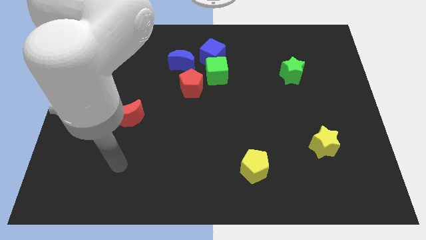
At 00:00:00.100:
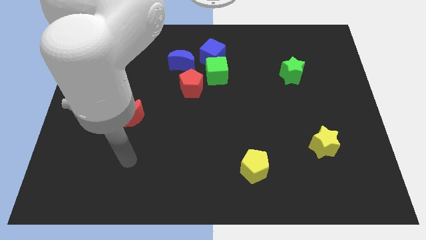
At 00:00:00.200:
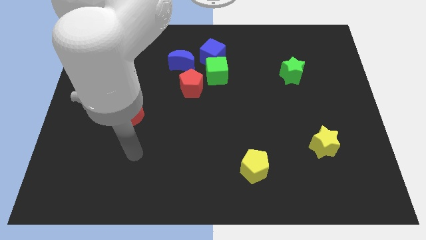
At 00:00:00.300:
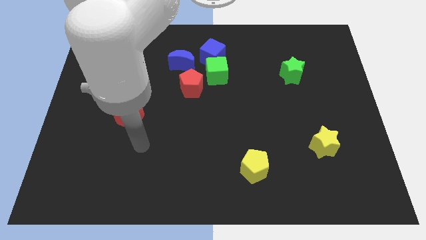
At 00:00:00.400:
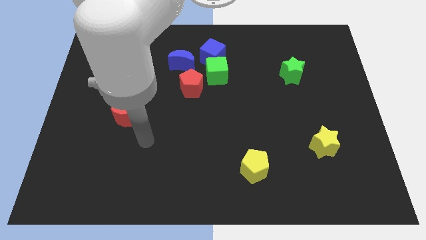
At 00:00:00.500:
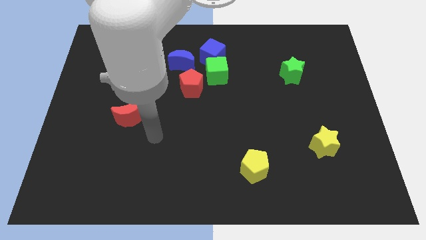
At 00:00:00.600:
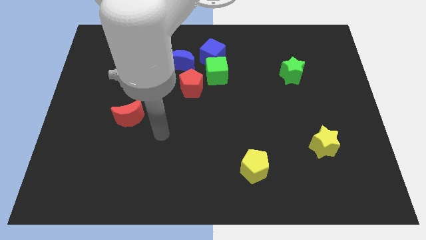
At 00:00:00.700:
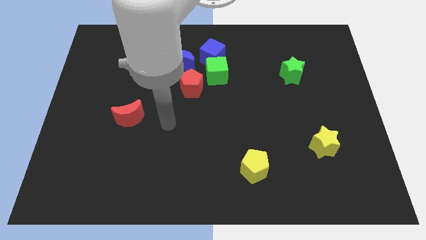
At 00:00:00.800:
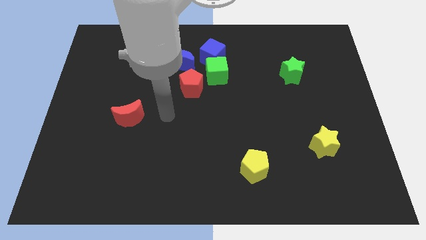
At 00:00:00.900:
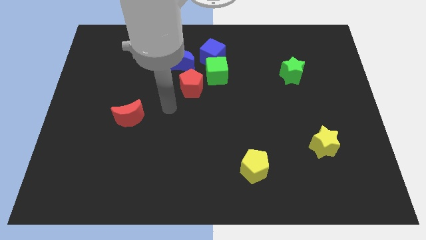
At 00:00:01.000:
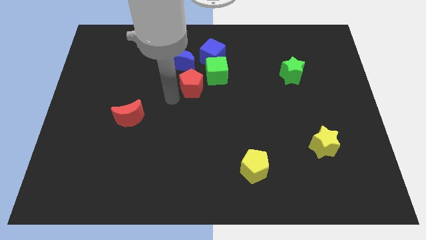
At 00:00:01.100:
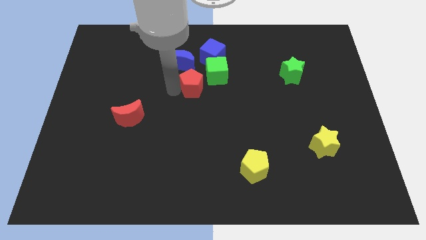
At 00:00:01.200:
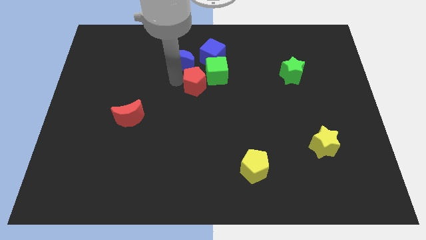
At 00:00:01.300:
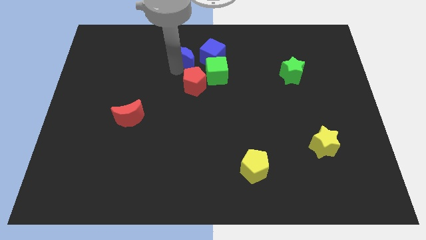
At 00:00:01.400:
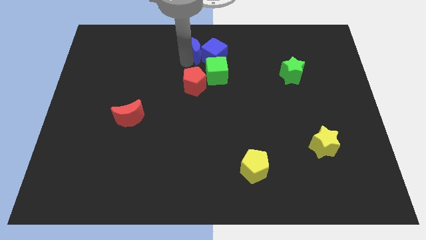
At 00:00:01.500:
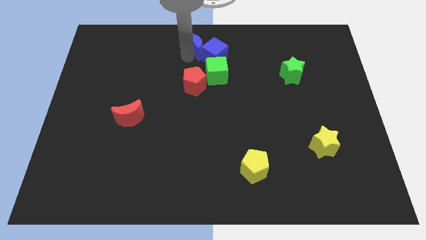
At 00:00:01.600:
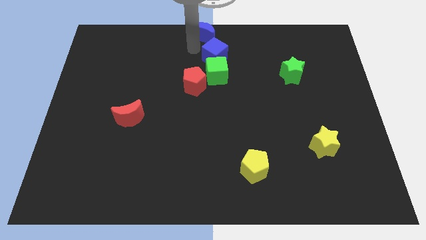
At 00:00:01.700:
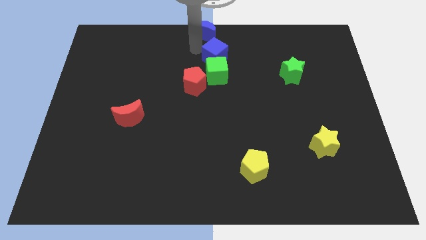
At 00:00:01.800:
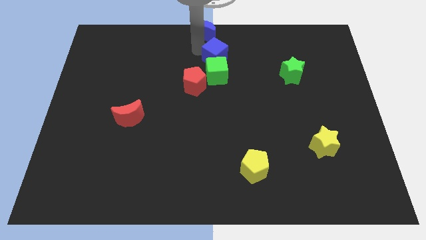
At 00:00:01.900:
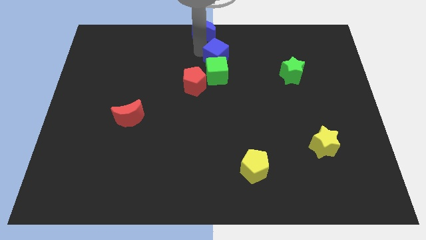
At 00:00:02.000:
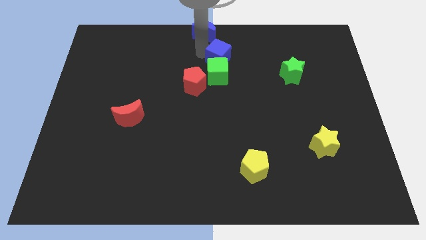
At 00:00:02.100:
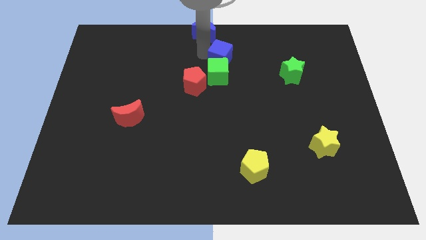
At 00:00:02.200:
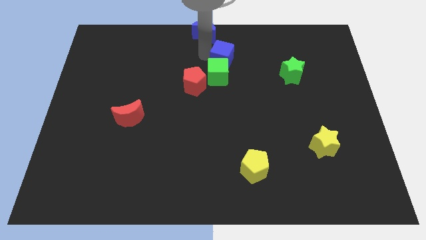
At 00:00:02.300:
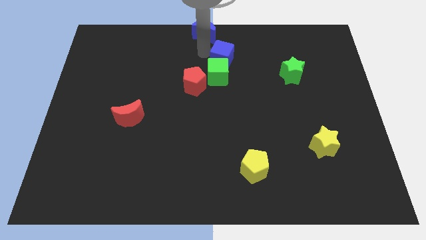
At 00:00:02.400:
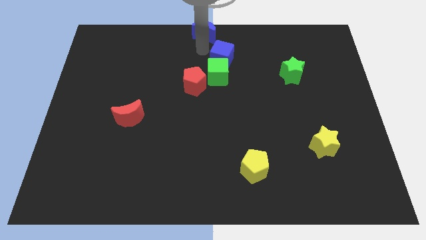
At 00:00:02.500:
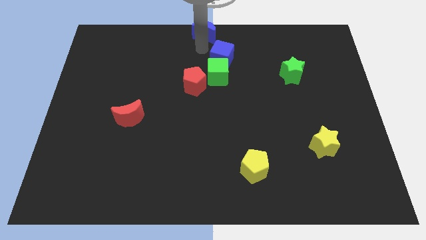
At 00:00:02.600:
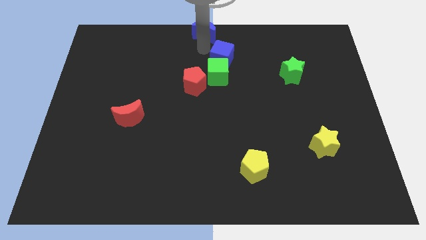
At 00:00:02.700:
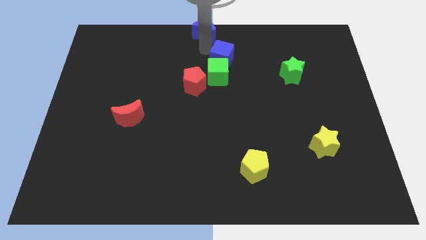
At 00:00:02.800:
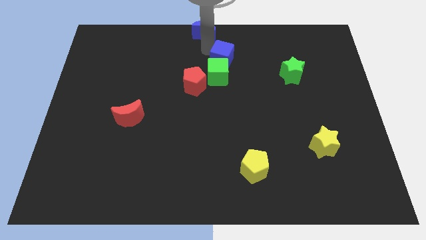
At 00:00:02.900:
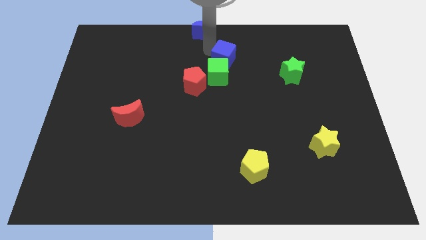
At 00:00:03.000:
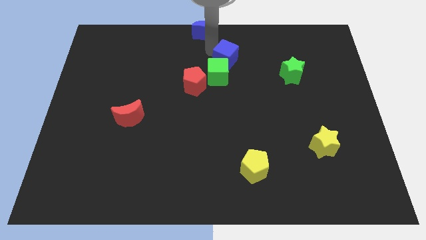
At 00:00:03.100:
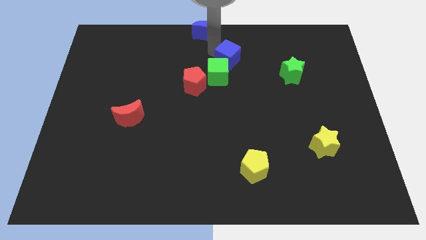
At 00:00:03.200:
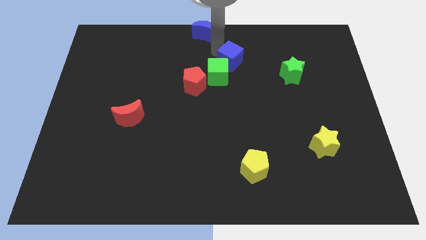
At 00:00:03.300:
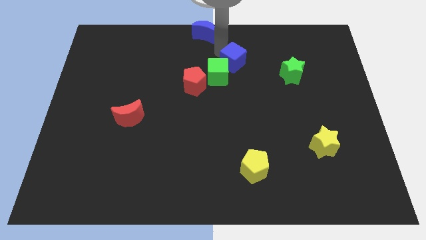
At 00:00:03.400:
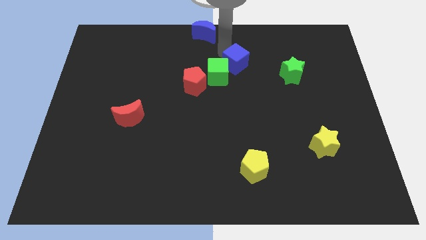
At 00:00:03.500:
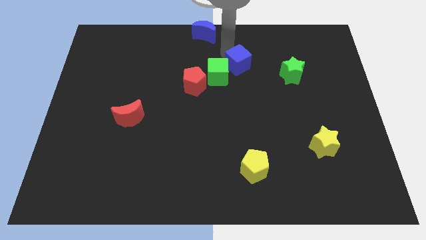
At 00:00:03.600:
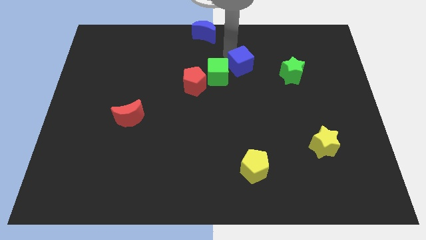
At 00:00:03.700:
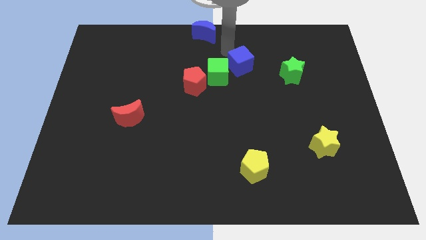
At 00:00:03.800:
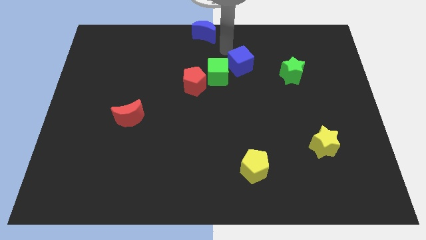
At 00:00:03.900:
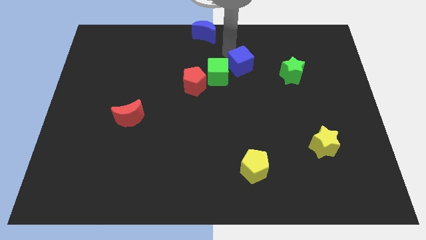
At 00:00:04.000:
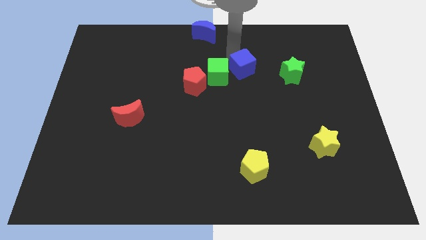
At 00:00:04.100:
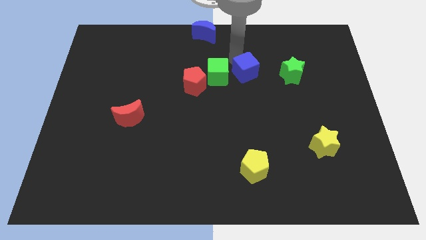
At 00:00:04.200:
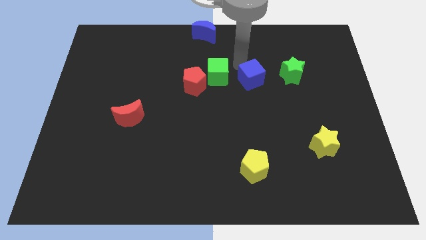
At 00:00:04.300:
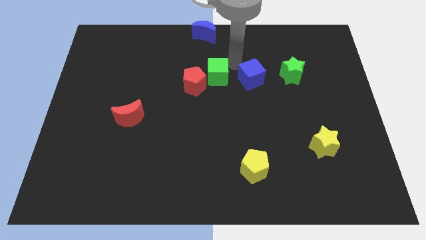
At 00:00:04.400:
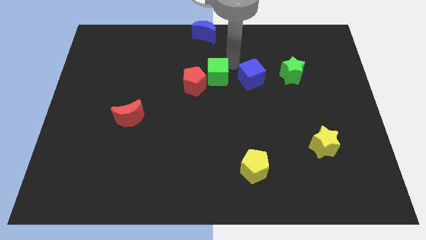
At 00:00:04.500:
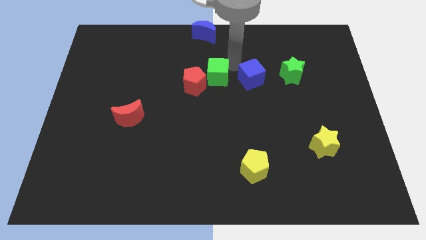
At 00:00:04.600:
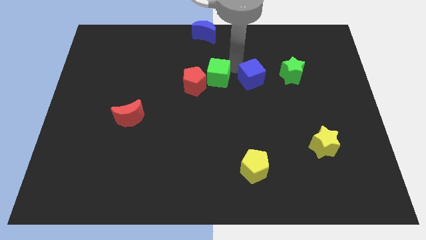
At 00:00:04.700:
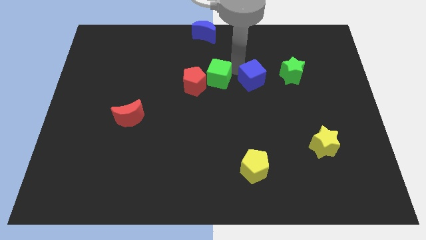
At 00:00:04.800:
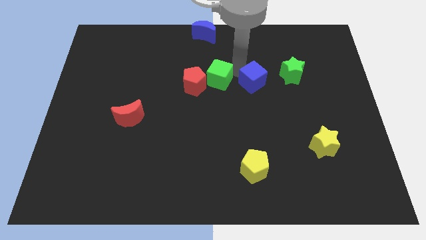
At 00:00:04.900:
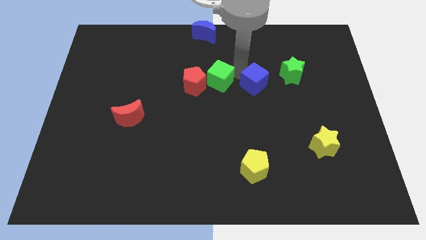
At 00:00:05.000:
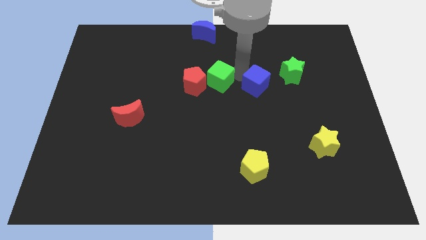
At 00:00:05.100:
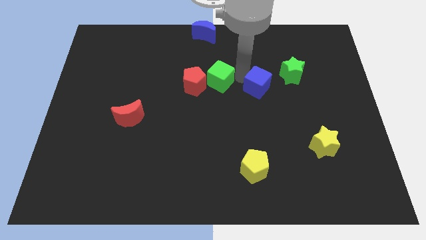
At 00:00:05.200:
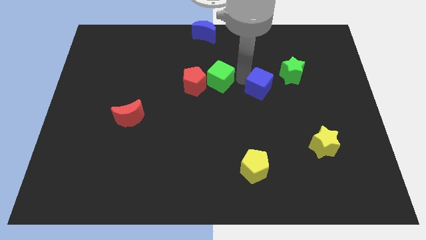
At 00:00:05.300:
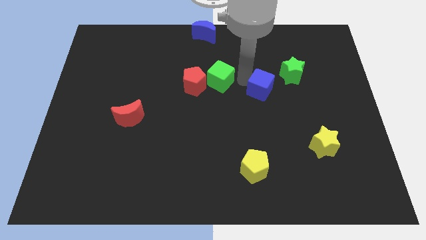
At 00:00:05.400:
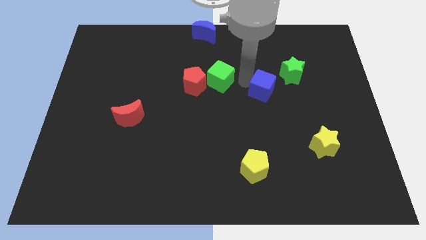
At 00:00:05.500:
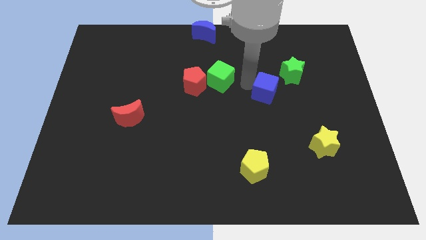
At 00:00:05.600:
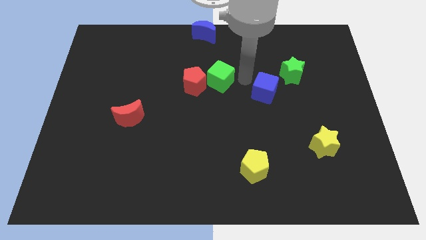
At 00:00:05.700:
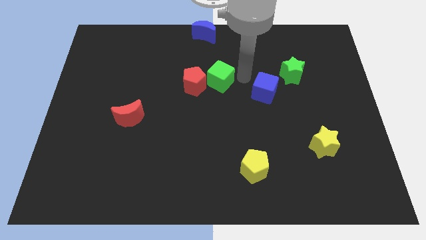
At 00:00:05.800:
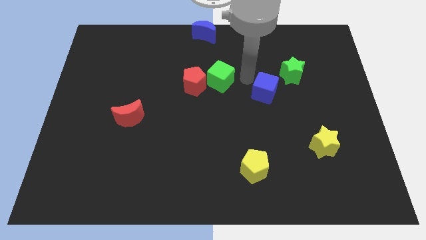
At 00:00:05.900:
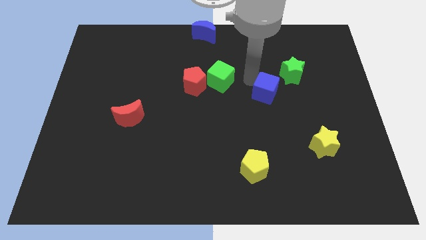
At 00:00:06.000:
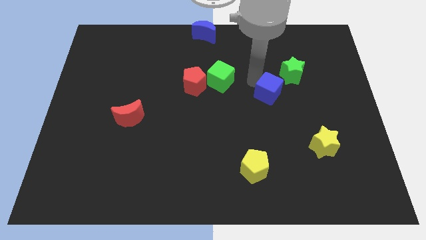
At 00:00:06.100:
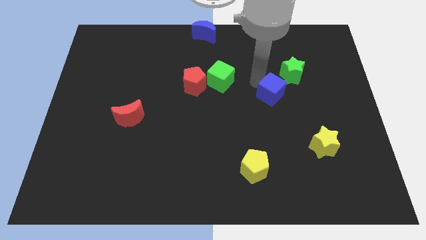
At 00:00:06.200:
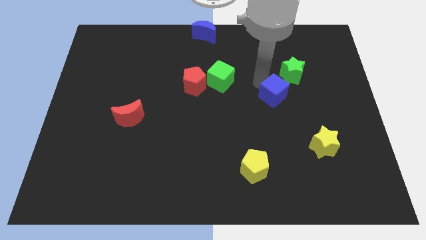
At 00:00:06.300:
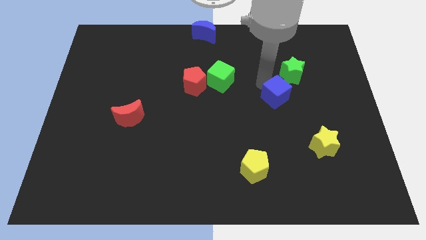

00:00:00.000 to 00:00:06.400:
slide the blue cube downwards and then right

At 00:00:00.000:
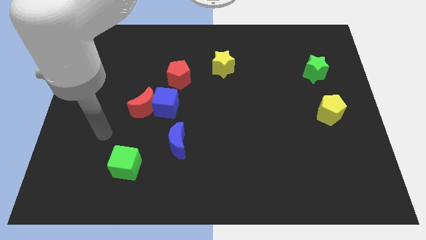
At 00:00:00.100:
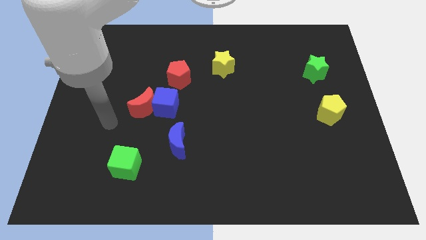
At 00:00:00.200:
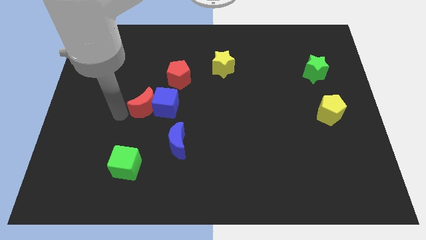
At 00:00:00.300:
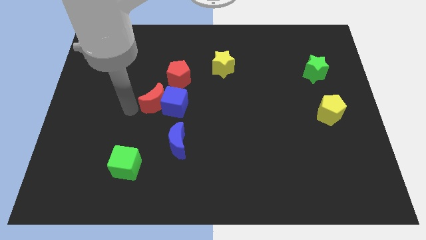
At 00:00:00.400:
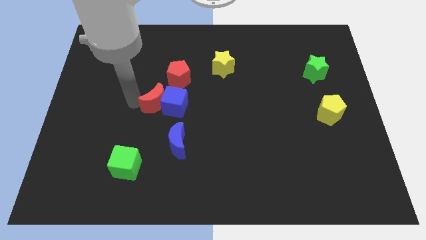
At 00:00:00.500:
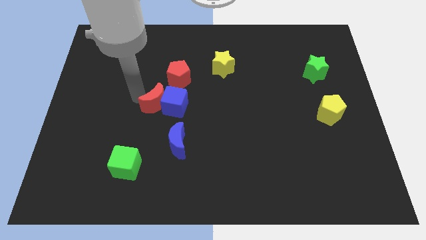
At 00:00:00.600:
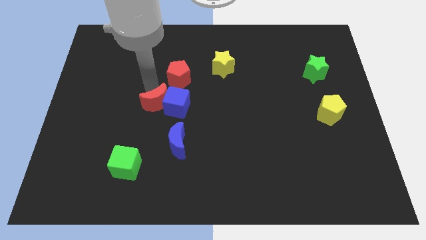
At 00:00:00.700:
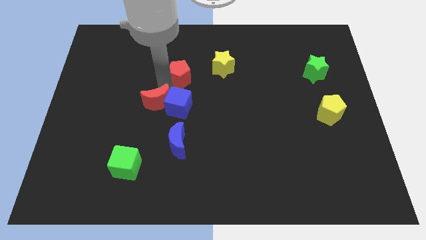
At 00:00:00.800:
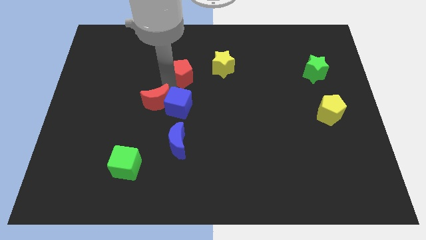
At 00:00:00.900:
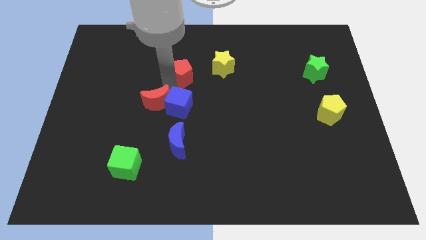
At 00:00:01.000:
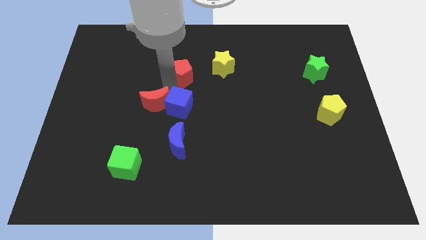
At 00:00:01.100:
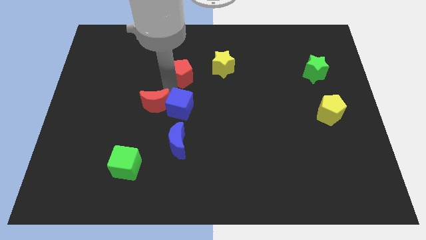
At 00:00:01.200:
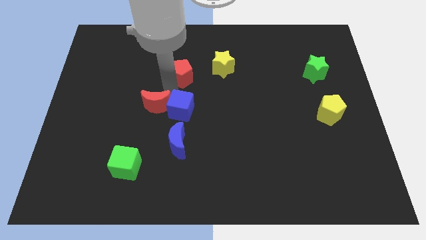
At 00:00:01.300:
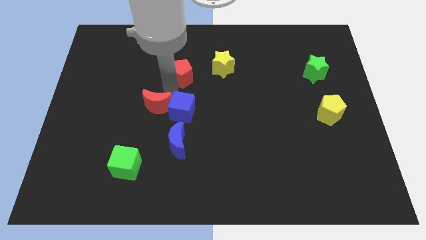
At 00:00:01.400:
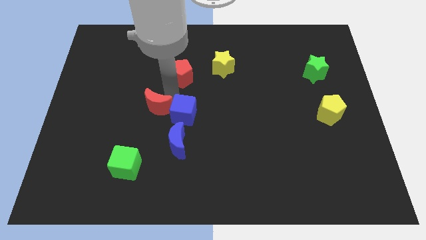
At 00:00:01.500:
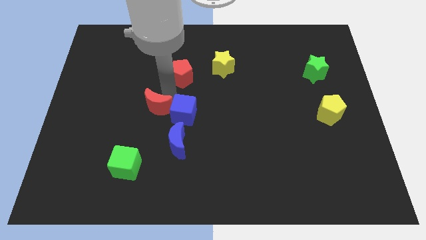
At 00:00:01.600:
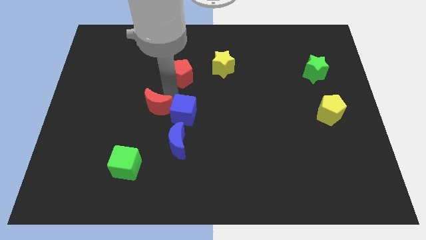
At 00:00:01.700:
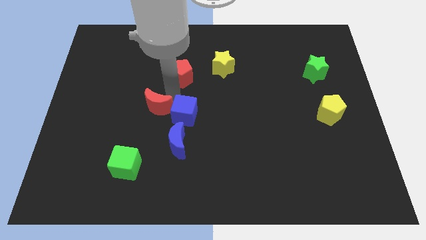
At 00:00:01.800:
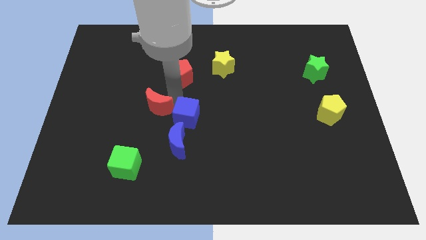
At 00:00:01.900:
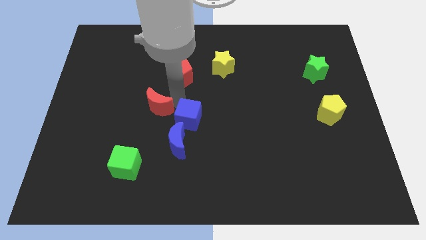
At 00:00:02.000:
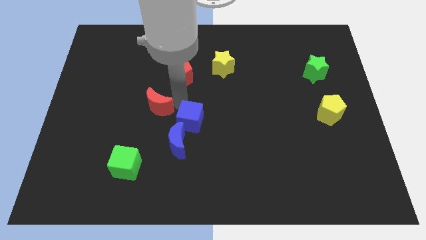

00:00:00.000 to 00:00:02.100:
slightly push the blue cube downwards and right
